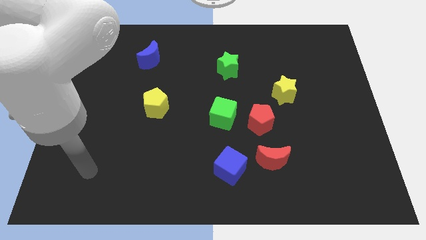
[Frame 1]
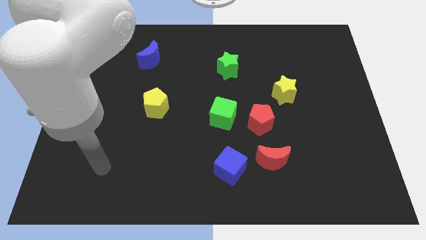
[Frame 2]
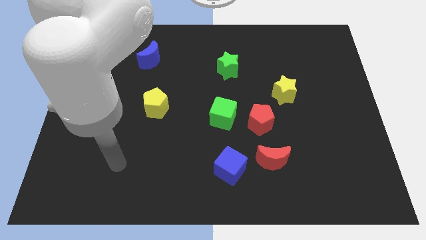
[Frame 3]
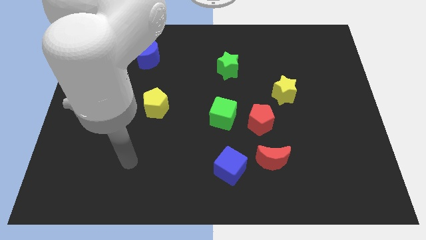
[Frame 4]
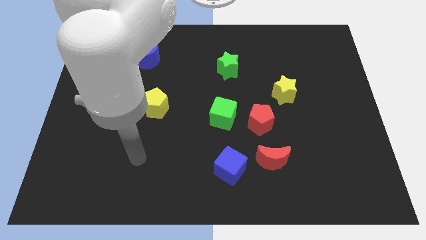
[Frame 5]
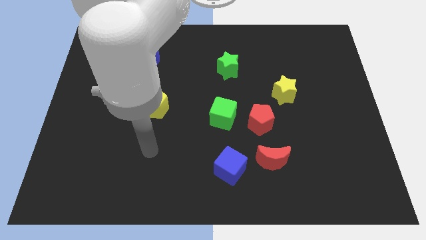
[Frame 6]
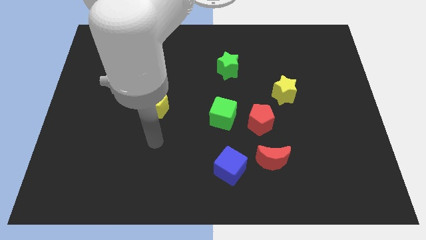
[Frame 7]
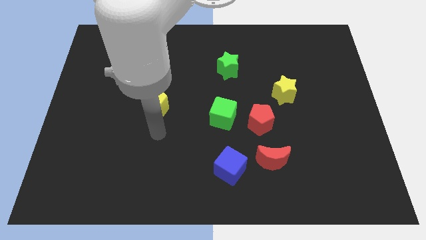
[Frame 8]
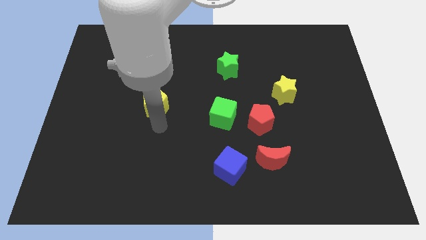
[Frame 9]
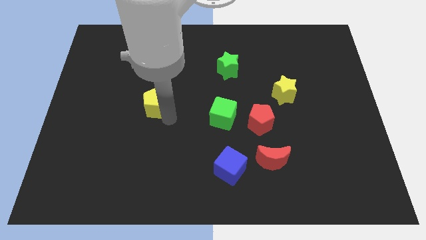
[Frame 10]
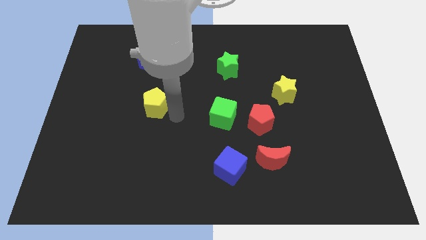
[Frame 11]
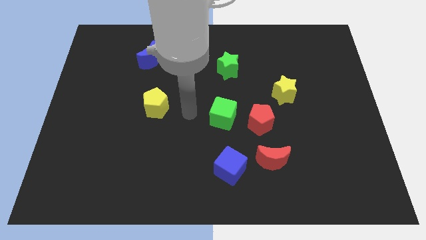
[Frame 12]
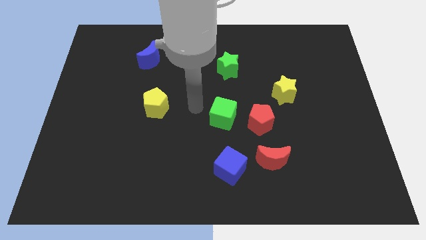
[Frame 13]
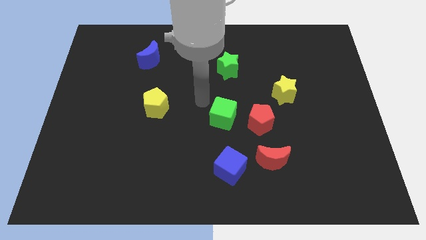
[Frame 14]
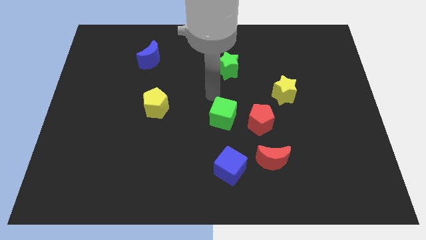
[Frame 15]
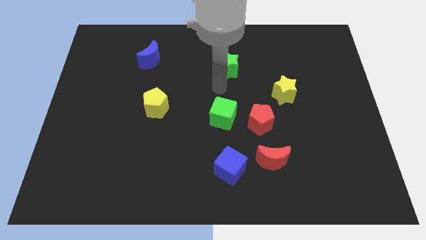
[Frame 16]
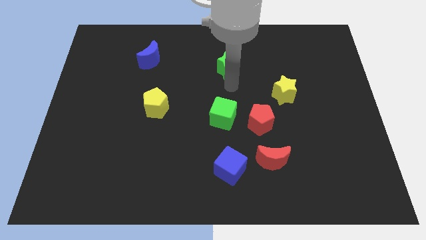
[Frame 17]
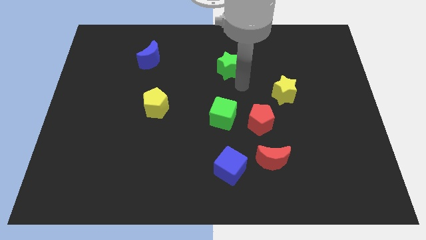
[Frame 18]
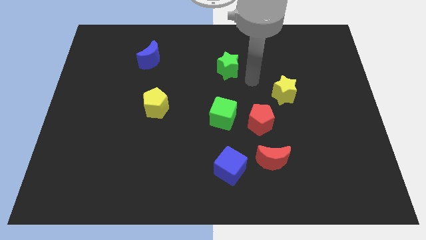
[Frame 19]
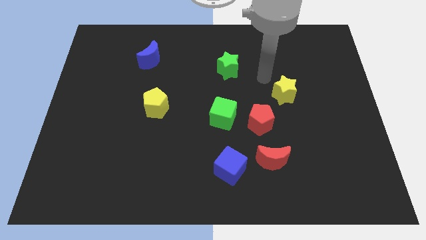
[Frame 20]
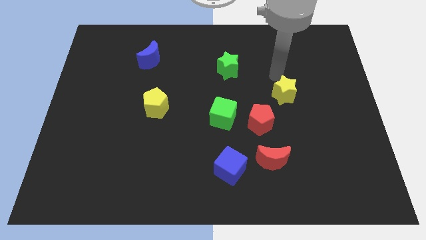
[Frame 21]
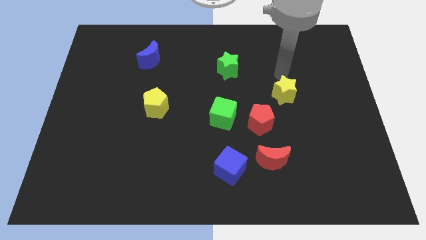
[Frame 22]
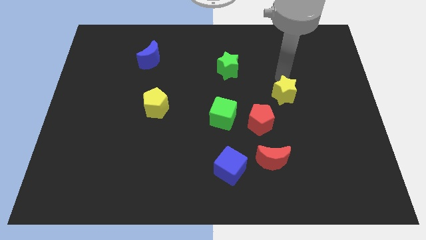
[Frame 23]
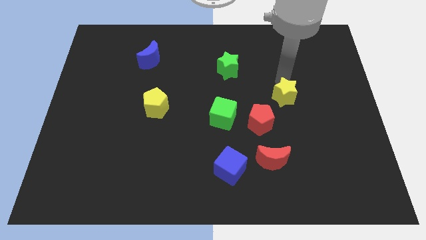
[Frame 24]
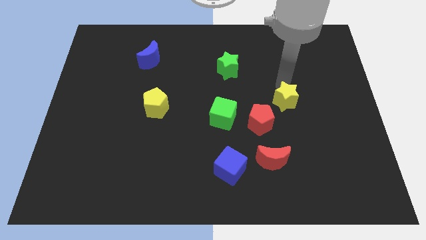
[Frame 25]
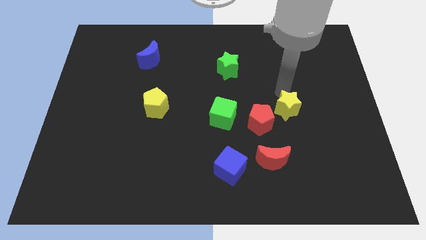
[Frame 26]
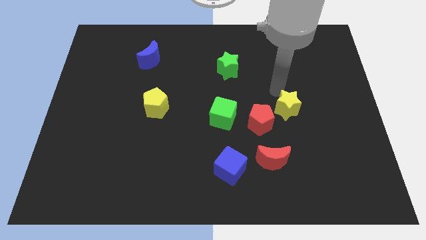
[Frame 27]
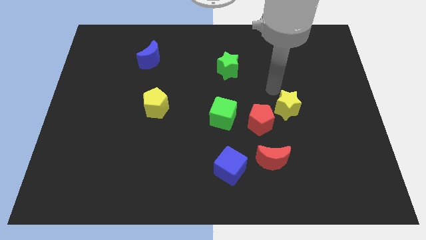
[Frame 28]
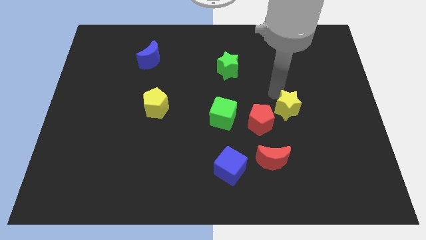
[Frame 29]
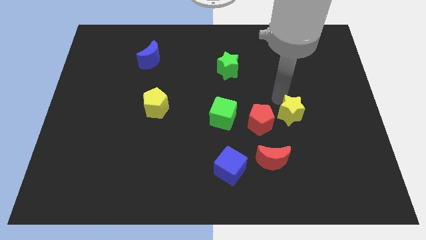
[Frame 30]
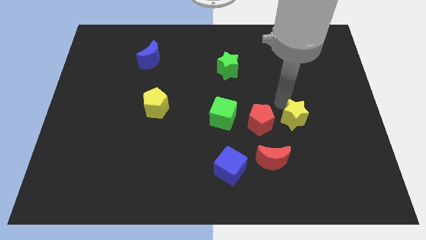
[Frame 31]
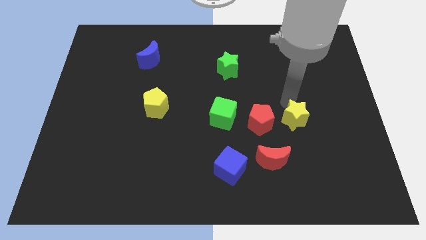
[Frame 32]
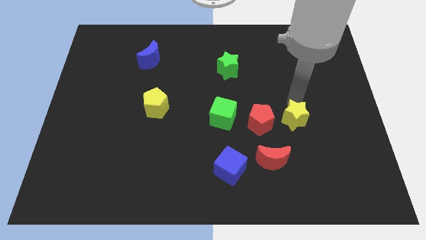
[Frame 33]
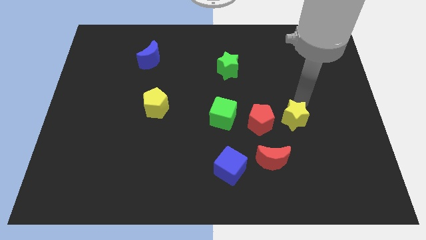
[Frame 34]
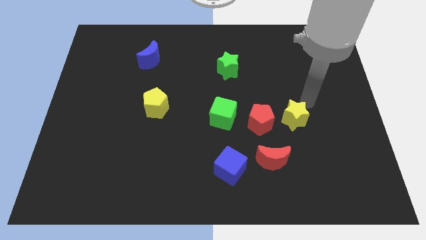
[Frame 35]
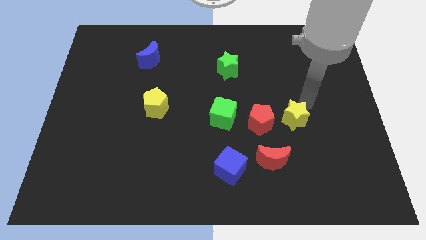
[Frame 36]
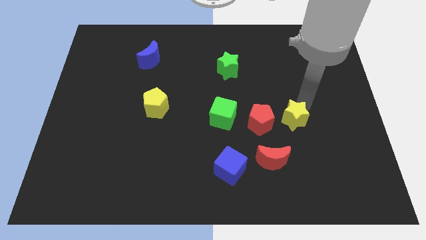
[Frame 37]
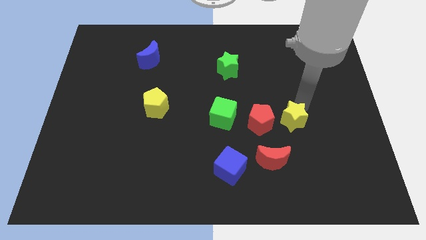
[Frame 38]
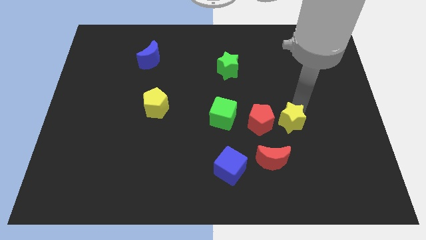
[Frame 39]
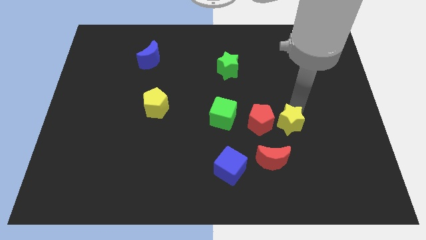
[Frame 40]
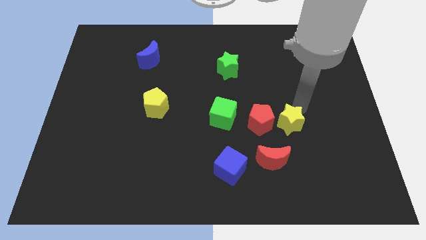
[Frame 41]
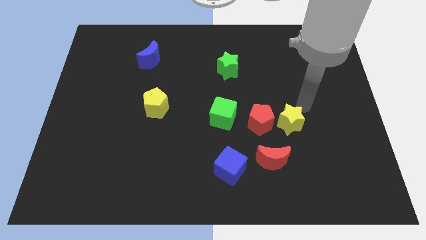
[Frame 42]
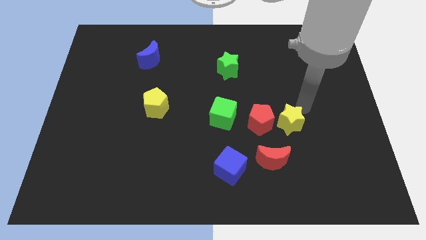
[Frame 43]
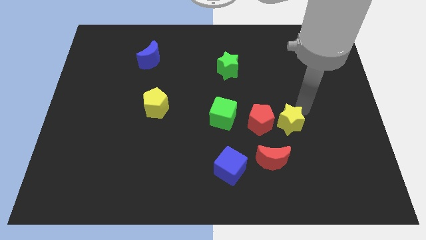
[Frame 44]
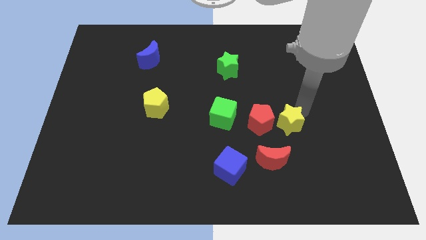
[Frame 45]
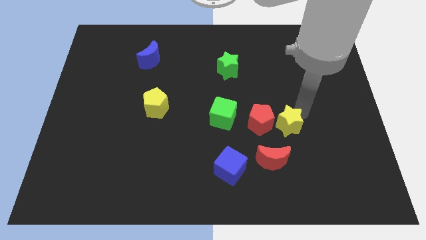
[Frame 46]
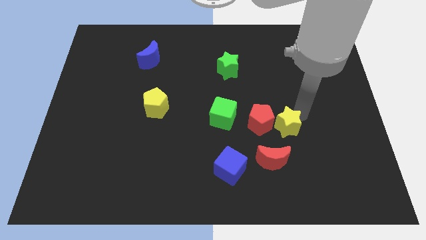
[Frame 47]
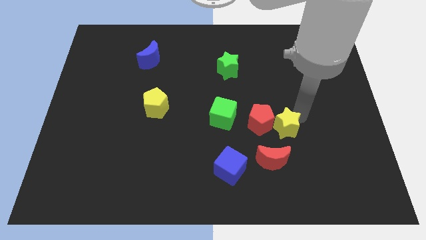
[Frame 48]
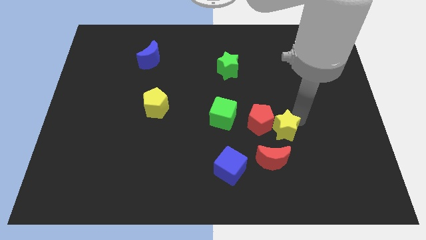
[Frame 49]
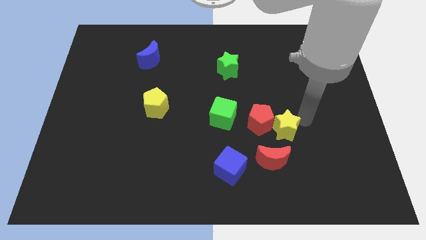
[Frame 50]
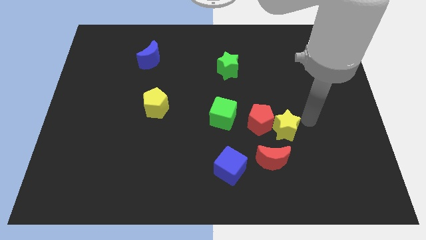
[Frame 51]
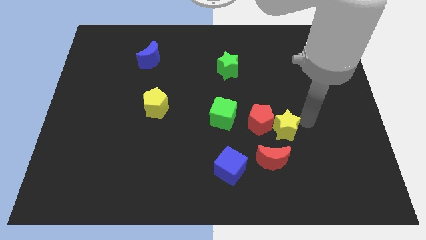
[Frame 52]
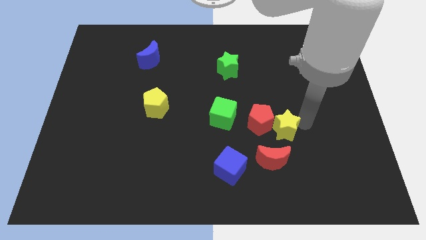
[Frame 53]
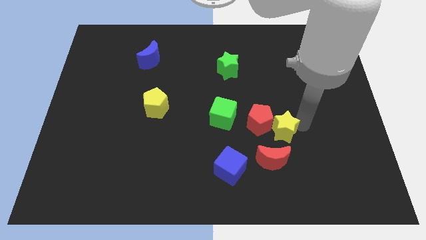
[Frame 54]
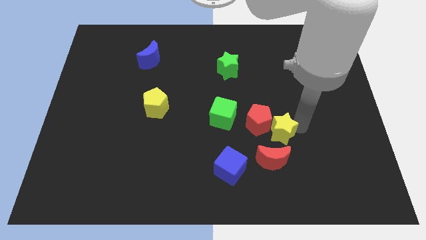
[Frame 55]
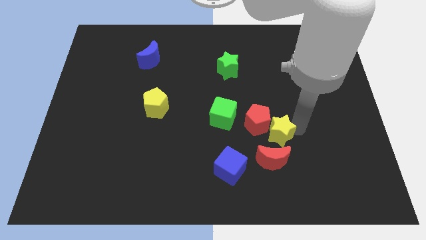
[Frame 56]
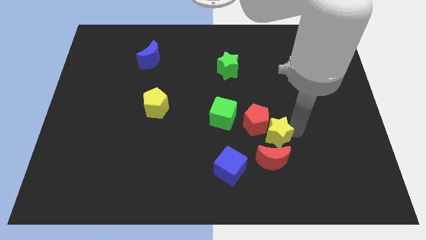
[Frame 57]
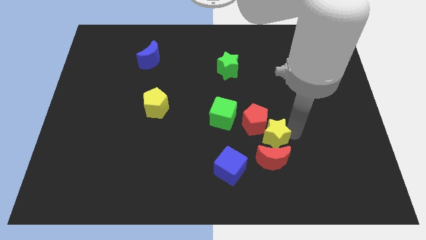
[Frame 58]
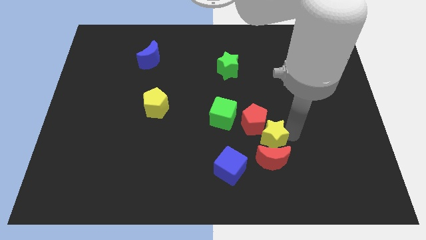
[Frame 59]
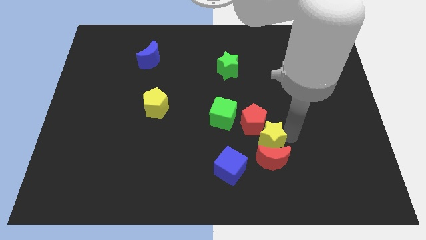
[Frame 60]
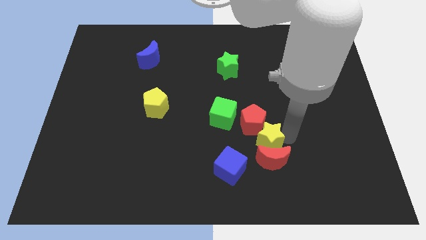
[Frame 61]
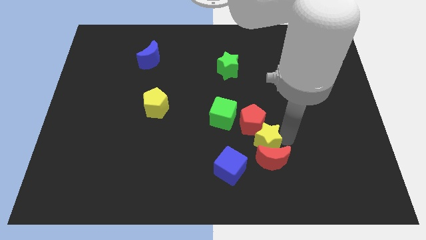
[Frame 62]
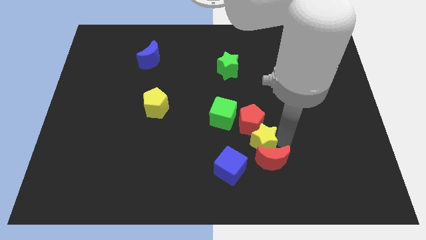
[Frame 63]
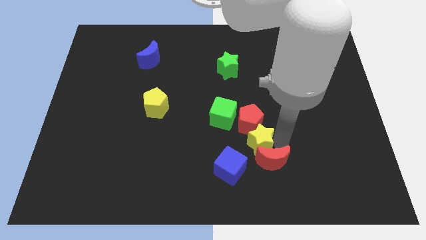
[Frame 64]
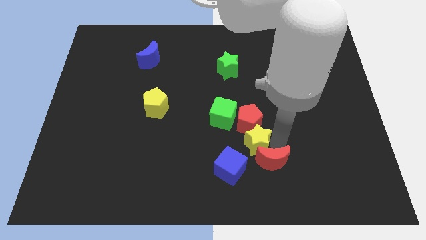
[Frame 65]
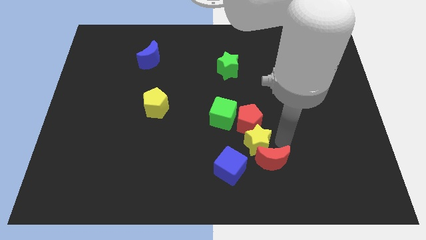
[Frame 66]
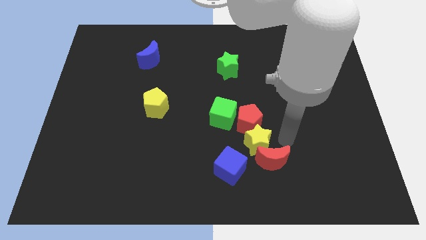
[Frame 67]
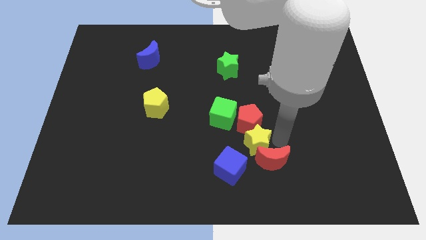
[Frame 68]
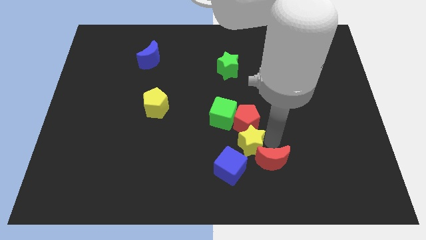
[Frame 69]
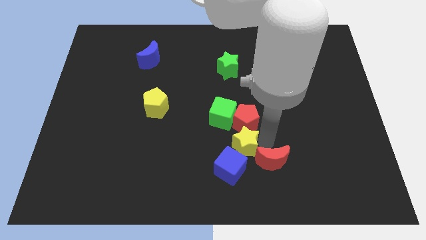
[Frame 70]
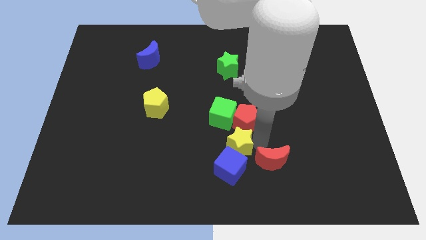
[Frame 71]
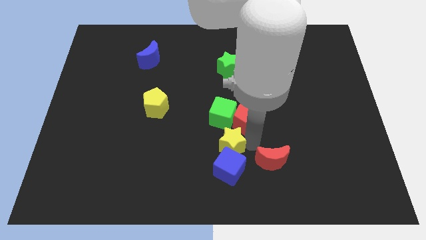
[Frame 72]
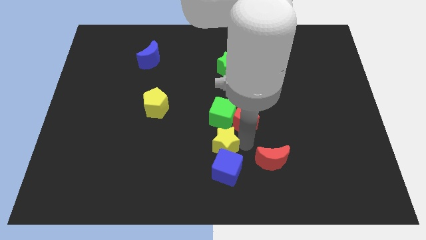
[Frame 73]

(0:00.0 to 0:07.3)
move the yellow star downwards and then to the left

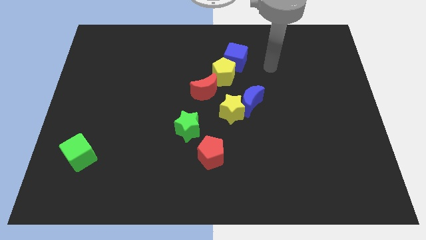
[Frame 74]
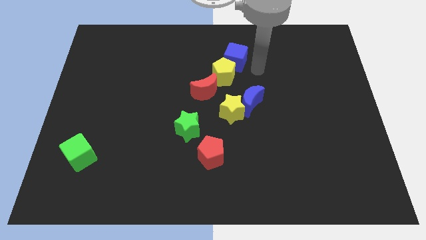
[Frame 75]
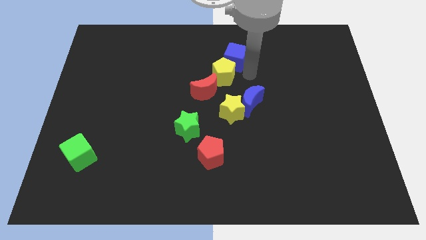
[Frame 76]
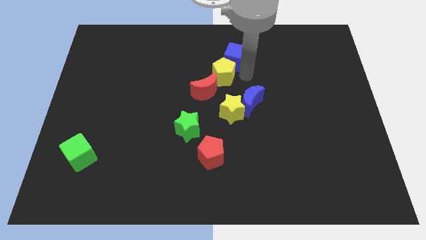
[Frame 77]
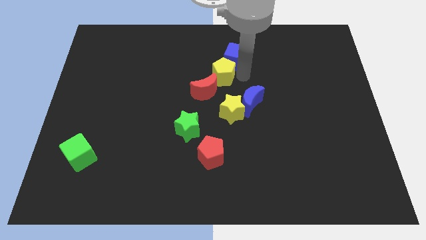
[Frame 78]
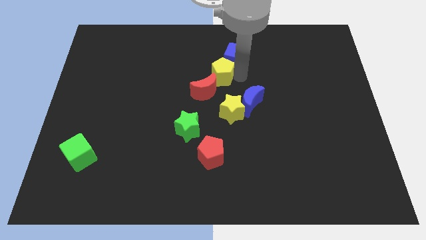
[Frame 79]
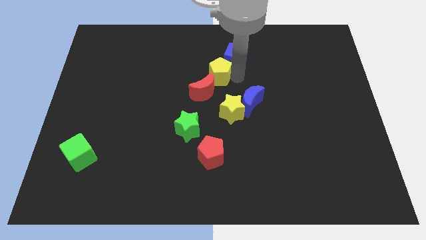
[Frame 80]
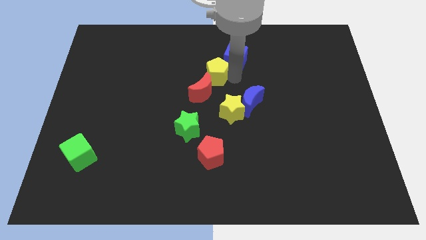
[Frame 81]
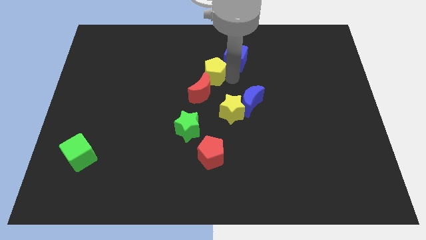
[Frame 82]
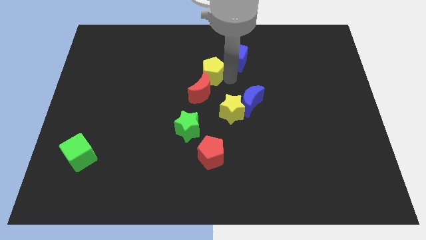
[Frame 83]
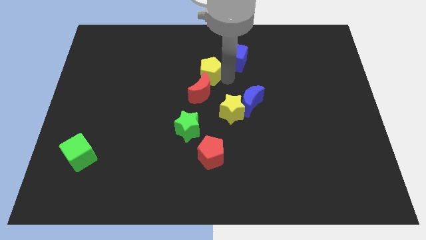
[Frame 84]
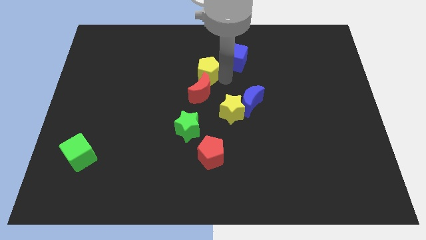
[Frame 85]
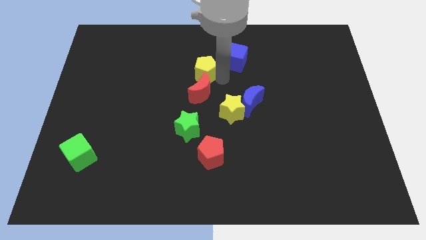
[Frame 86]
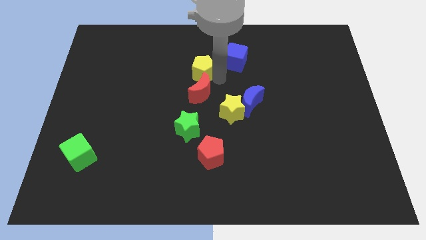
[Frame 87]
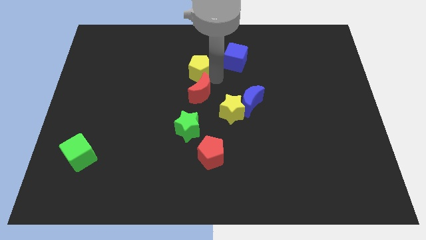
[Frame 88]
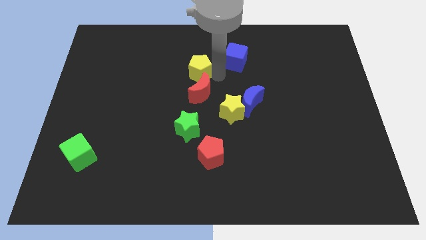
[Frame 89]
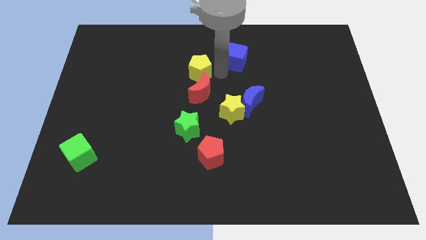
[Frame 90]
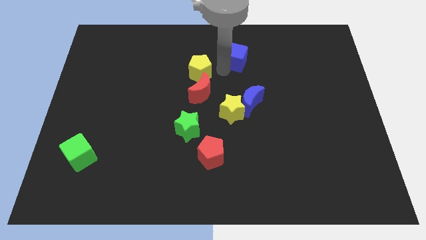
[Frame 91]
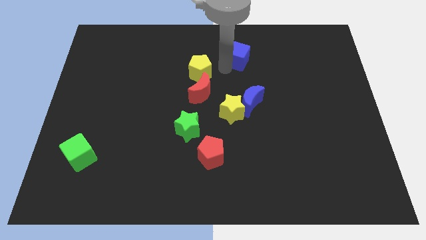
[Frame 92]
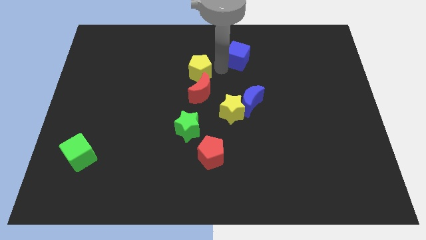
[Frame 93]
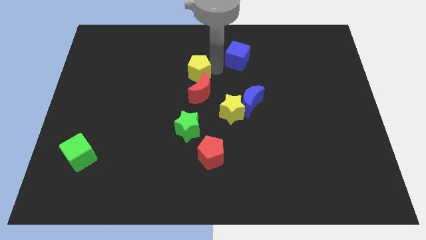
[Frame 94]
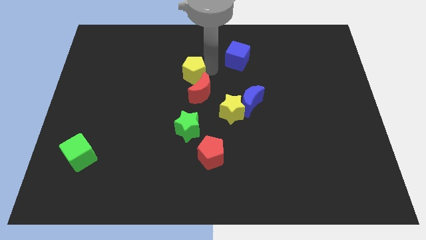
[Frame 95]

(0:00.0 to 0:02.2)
move the yellow pentagon a little bit to the left
